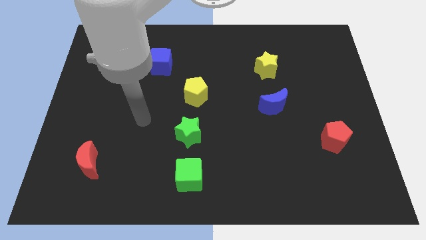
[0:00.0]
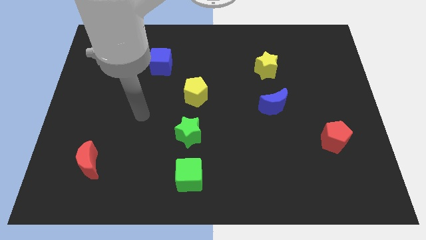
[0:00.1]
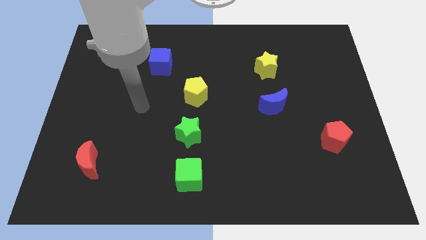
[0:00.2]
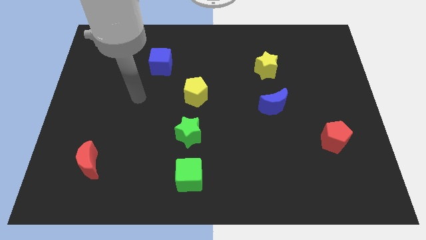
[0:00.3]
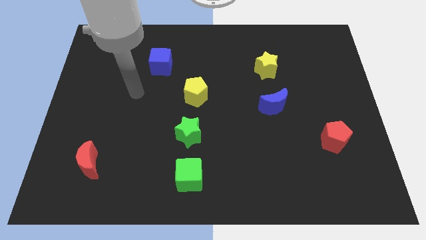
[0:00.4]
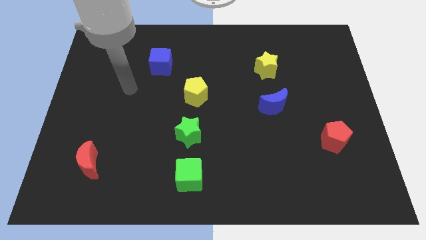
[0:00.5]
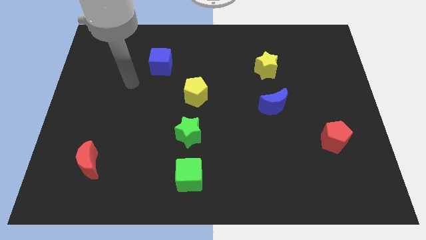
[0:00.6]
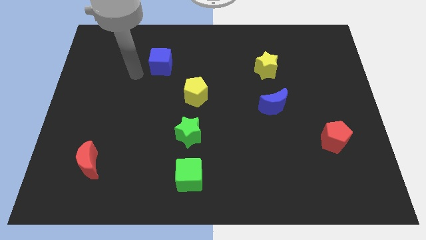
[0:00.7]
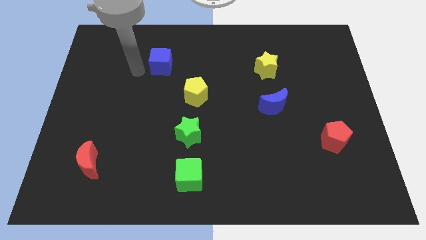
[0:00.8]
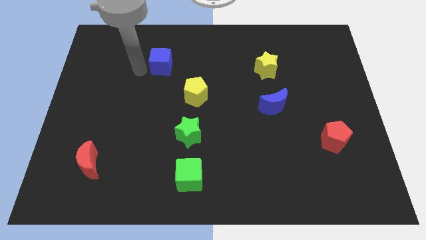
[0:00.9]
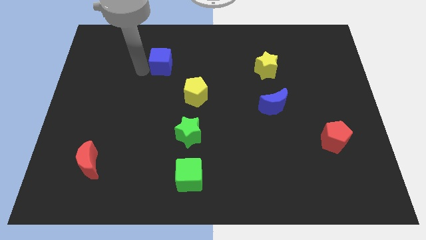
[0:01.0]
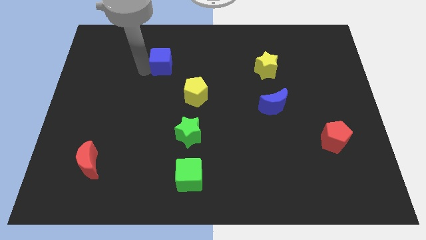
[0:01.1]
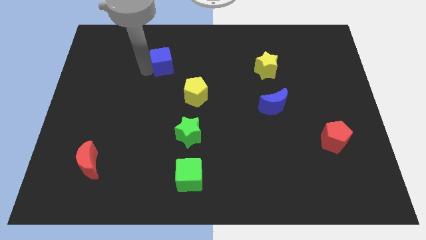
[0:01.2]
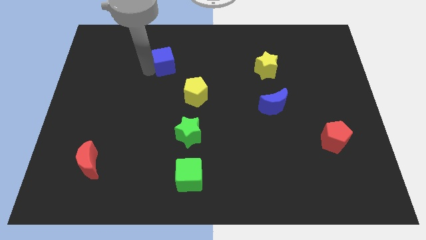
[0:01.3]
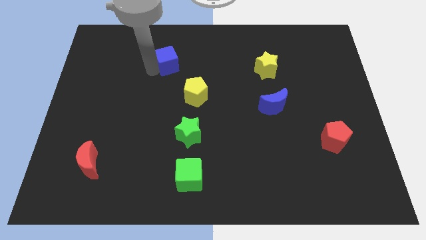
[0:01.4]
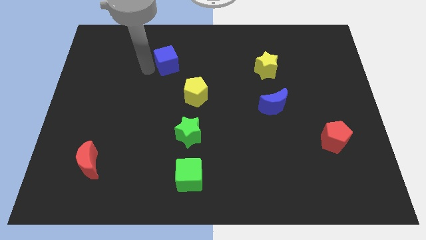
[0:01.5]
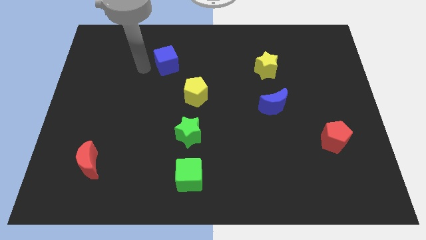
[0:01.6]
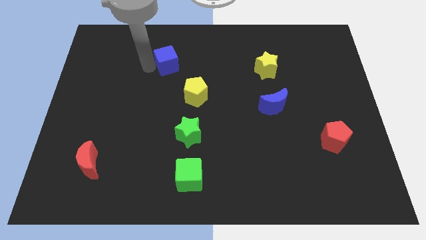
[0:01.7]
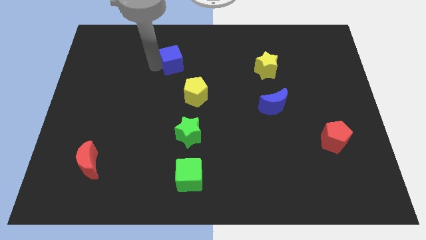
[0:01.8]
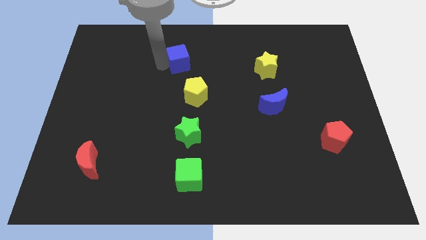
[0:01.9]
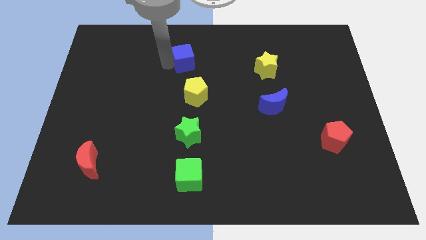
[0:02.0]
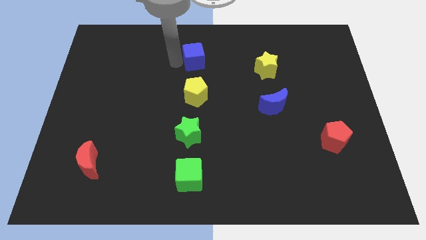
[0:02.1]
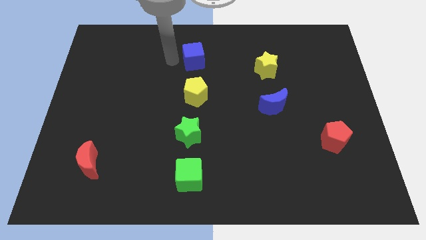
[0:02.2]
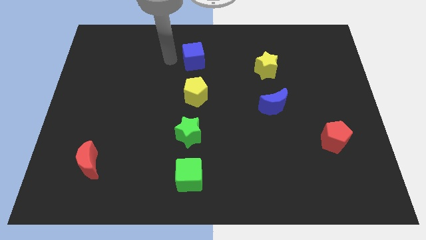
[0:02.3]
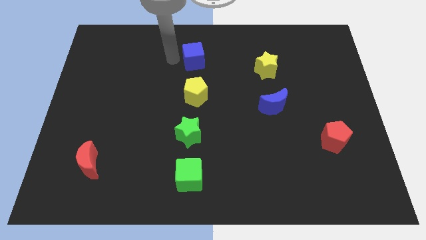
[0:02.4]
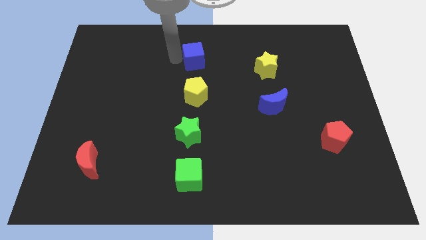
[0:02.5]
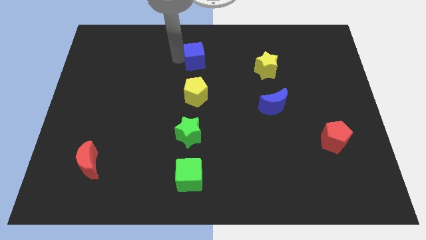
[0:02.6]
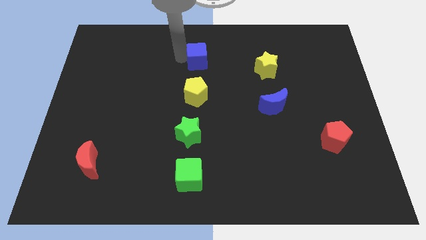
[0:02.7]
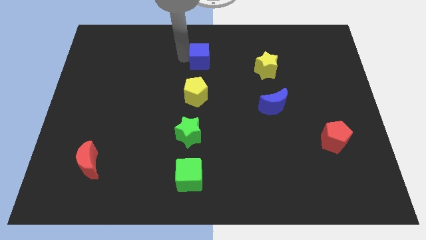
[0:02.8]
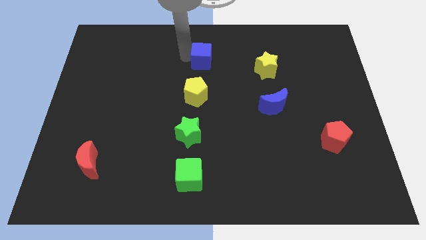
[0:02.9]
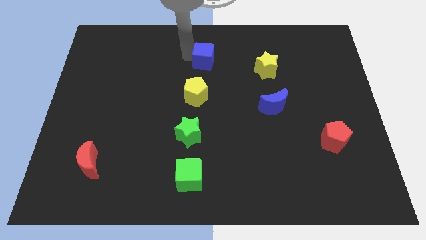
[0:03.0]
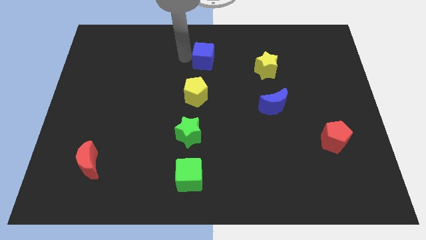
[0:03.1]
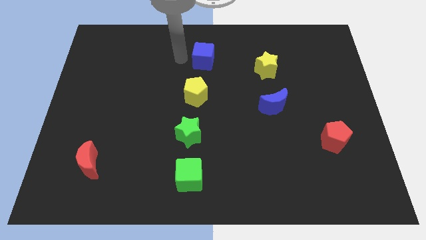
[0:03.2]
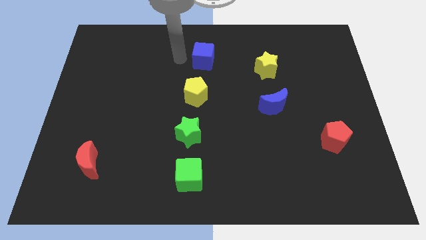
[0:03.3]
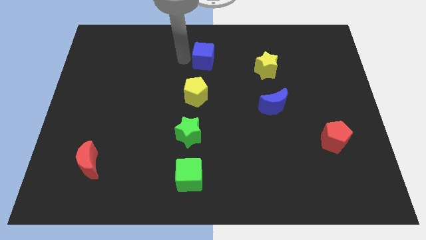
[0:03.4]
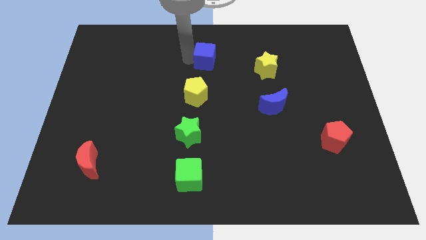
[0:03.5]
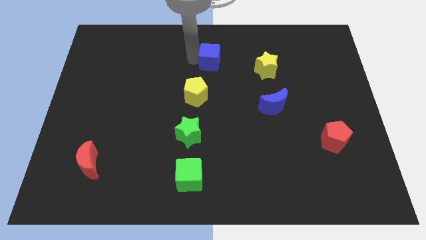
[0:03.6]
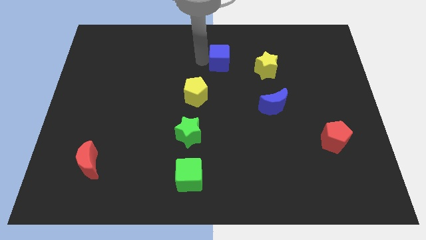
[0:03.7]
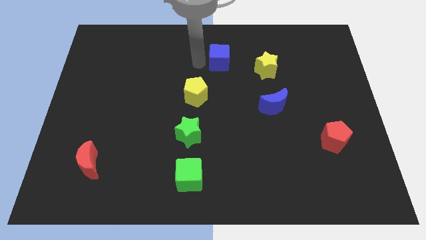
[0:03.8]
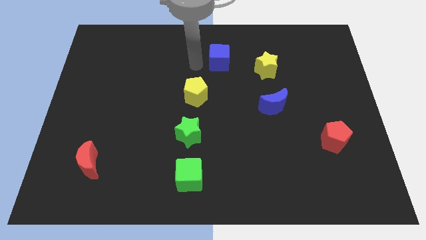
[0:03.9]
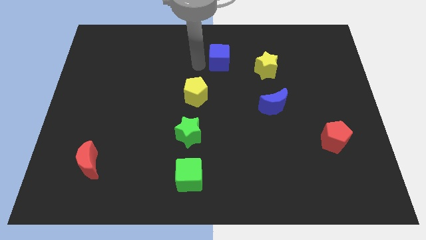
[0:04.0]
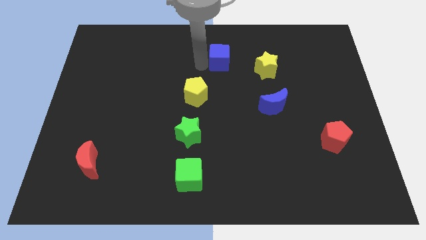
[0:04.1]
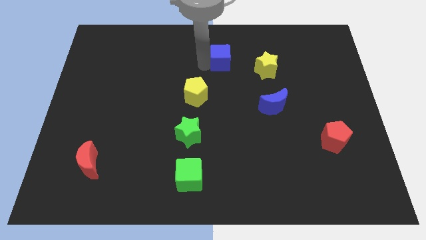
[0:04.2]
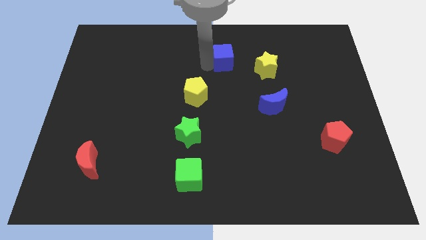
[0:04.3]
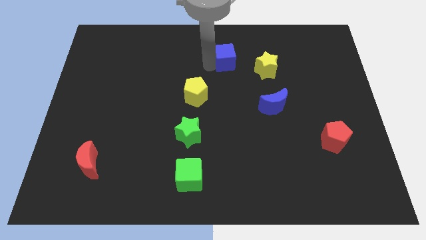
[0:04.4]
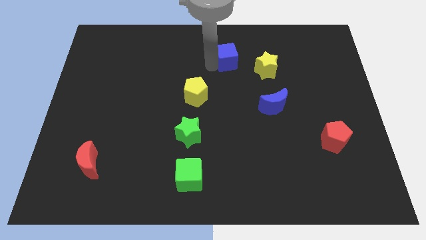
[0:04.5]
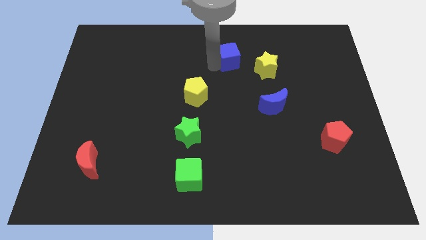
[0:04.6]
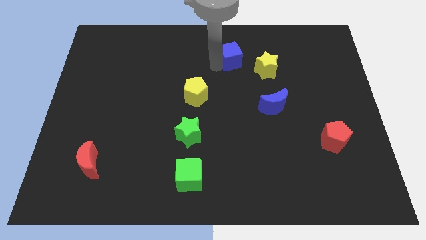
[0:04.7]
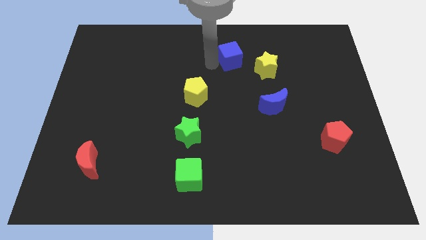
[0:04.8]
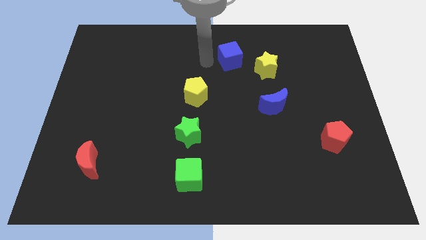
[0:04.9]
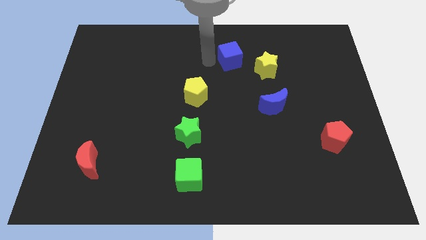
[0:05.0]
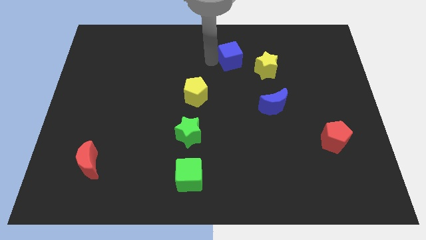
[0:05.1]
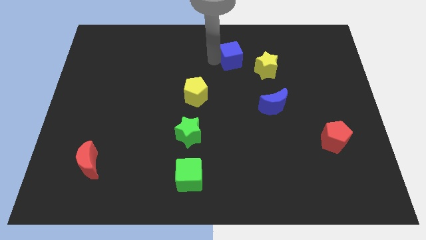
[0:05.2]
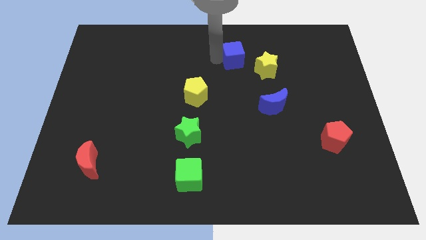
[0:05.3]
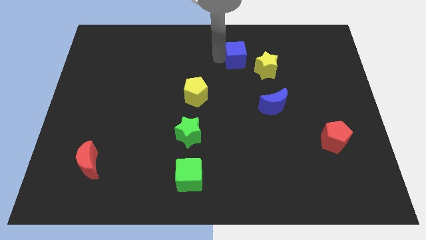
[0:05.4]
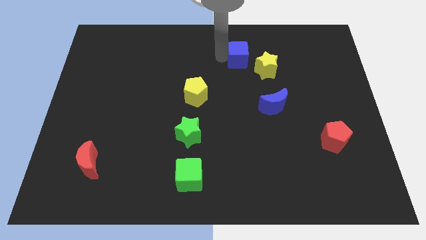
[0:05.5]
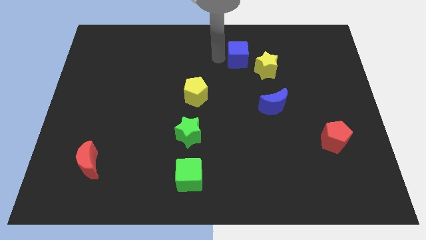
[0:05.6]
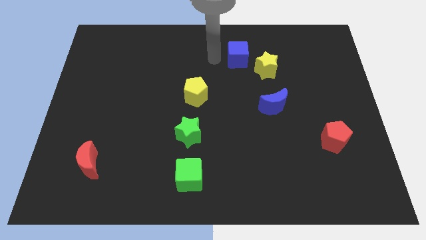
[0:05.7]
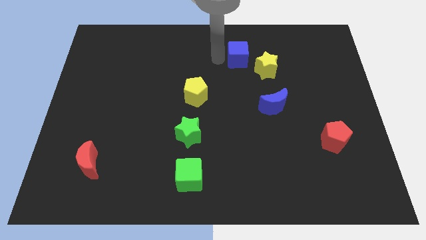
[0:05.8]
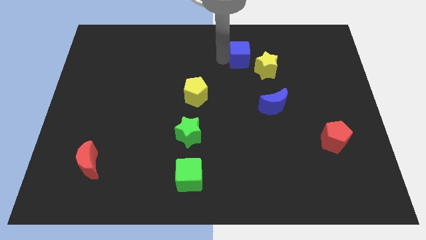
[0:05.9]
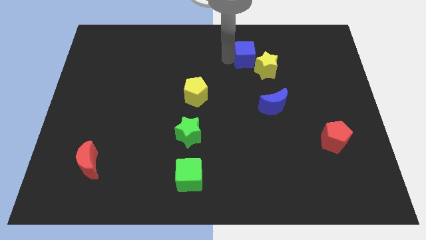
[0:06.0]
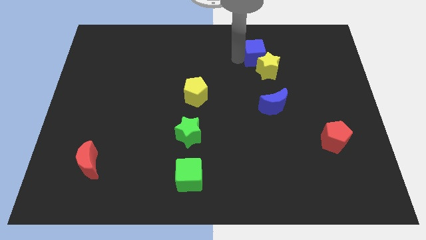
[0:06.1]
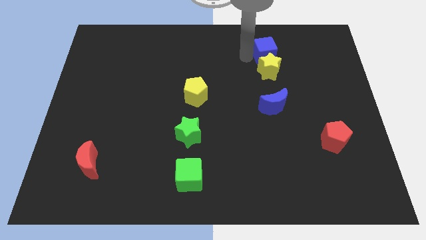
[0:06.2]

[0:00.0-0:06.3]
put the blue cube to the top right side of the yellow star

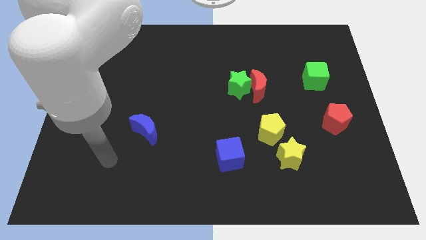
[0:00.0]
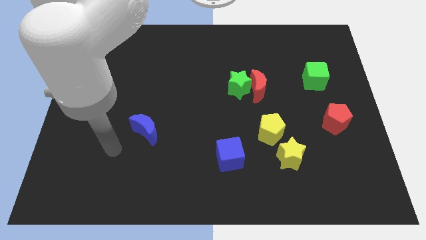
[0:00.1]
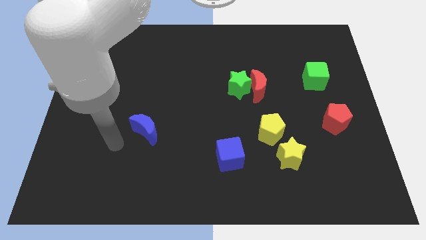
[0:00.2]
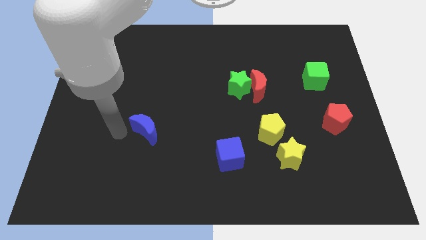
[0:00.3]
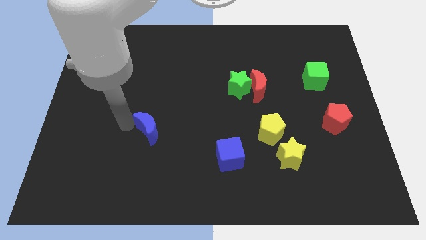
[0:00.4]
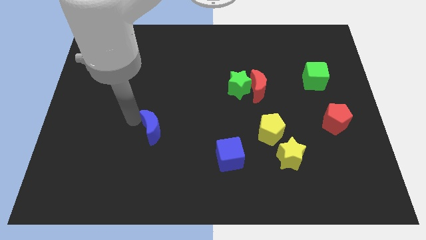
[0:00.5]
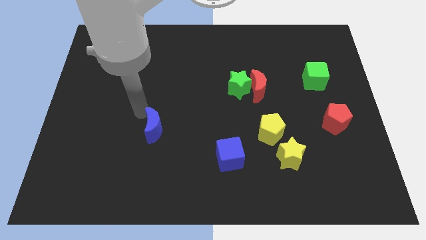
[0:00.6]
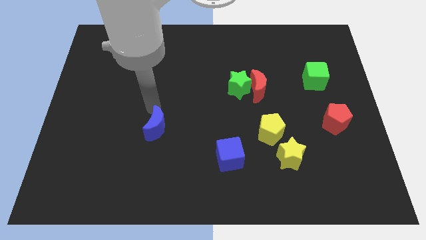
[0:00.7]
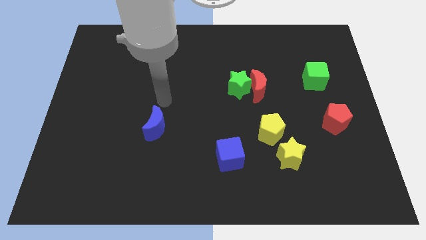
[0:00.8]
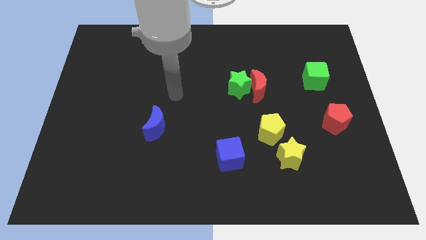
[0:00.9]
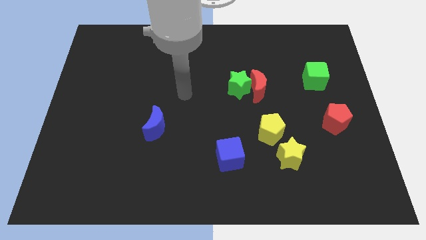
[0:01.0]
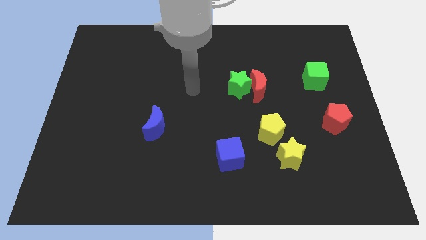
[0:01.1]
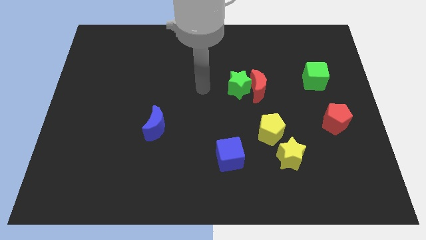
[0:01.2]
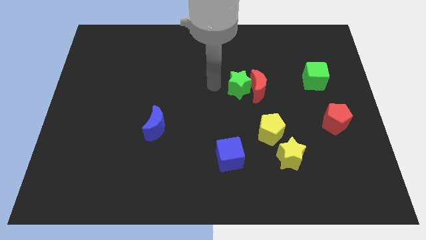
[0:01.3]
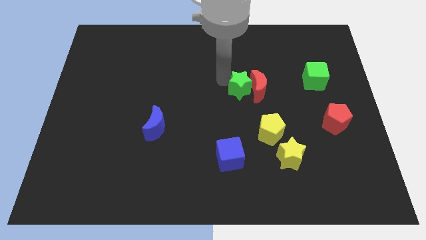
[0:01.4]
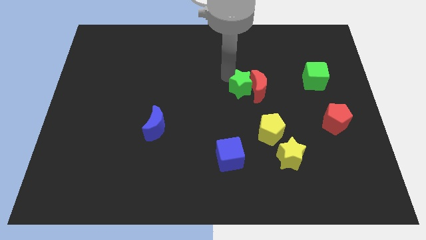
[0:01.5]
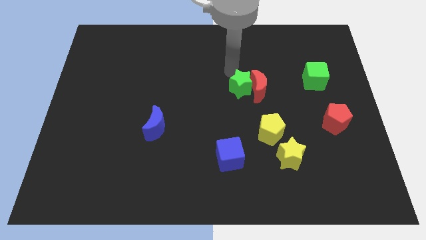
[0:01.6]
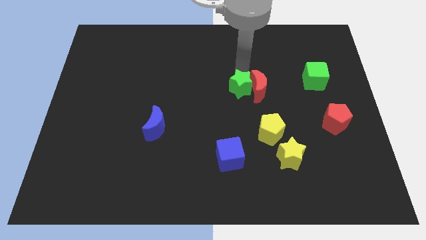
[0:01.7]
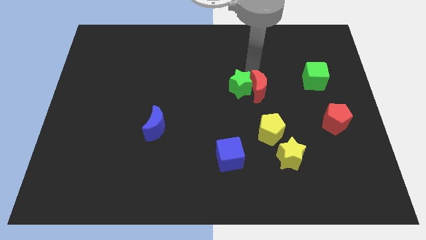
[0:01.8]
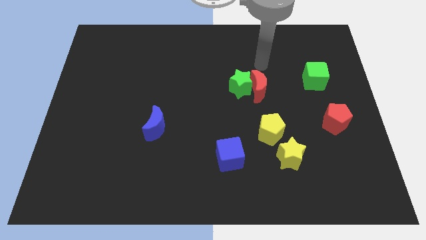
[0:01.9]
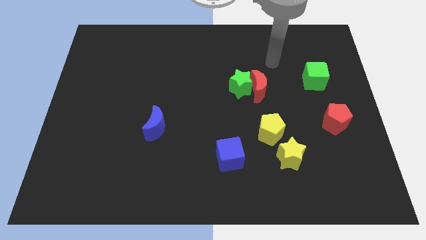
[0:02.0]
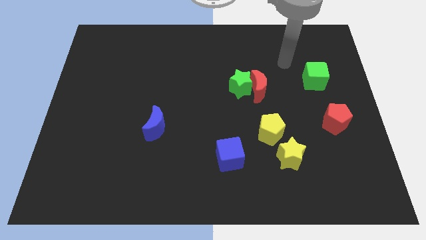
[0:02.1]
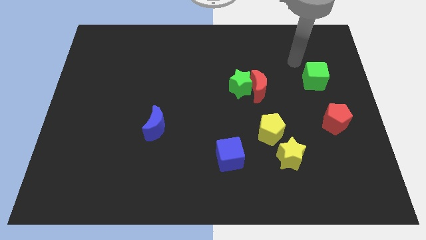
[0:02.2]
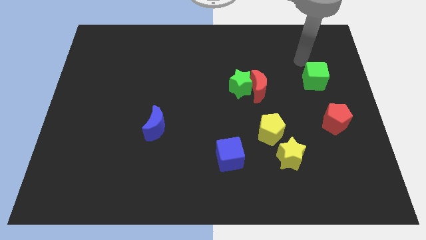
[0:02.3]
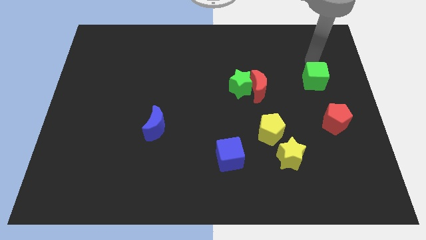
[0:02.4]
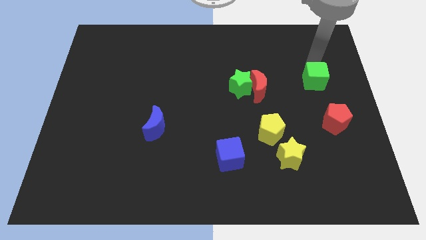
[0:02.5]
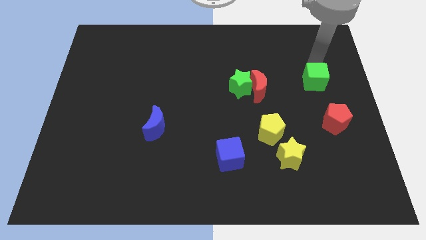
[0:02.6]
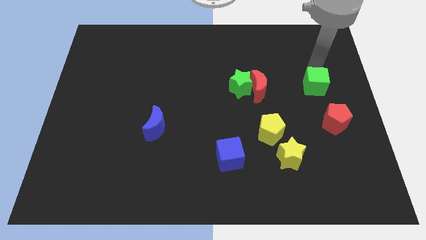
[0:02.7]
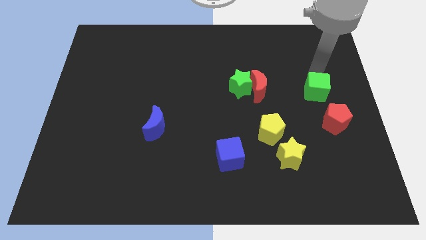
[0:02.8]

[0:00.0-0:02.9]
push the green cube diagonally up and to the left of the red pentagon
